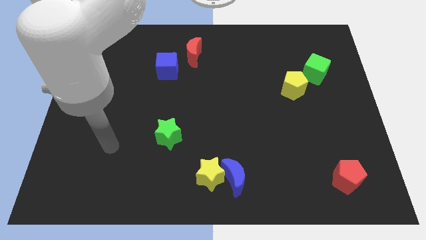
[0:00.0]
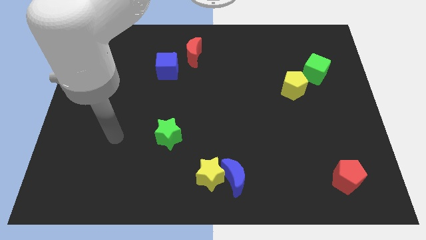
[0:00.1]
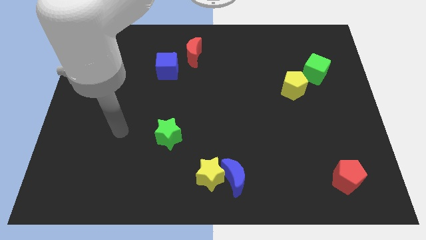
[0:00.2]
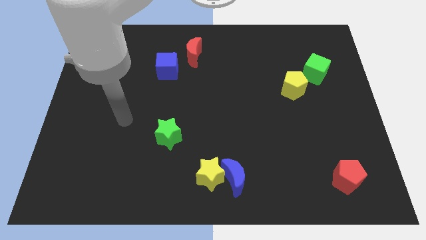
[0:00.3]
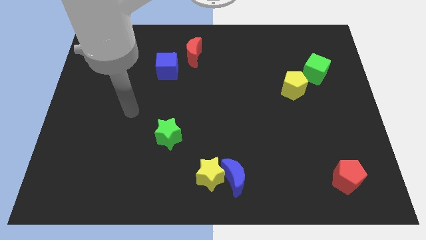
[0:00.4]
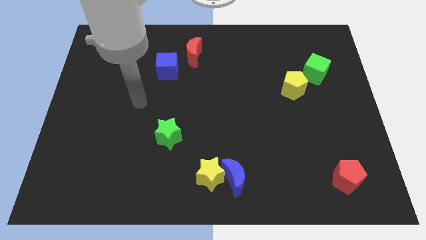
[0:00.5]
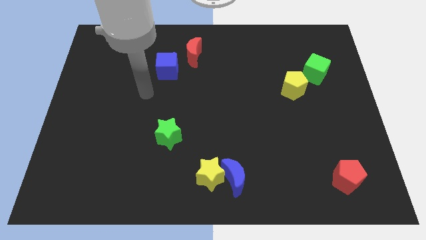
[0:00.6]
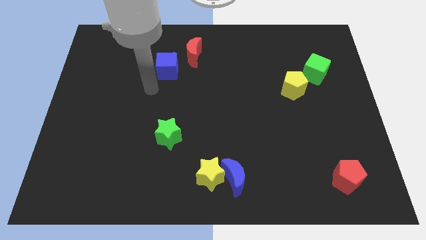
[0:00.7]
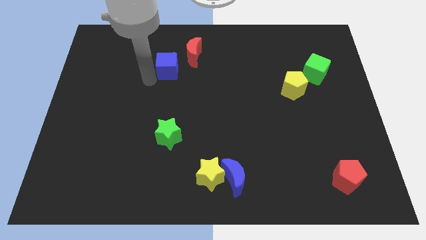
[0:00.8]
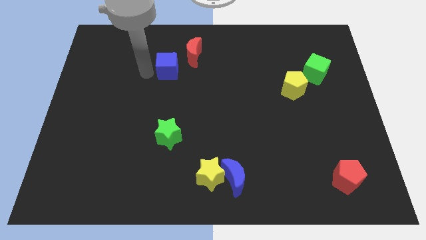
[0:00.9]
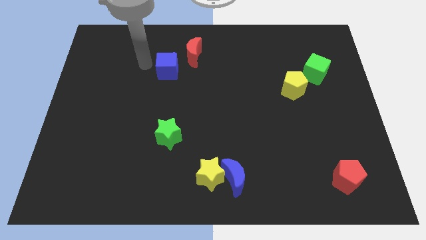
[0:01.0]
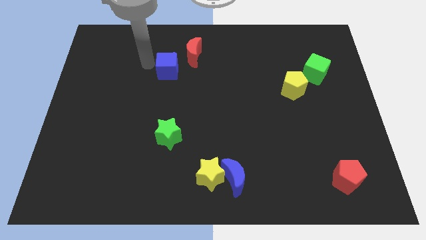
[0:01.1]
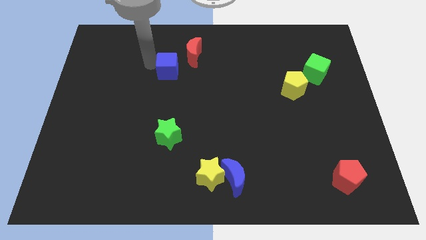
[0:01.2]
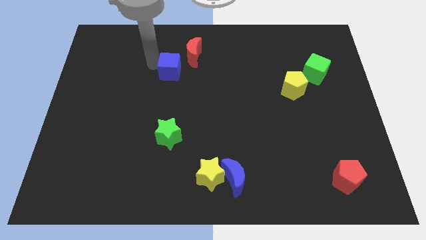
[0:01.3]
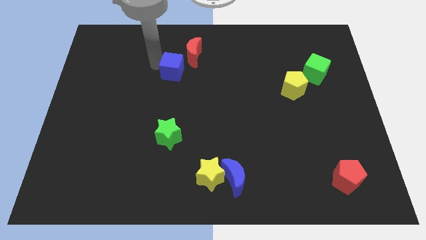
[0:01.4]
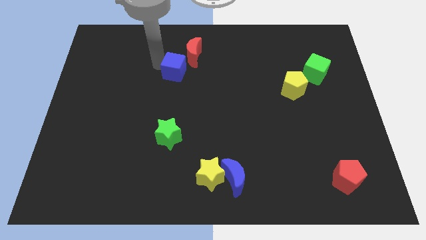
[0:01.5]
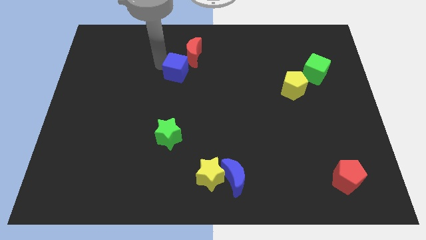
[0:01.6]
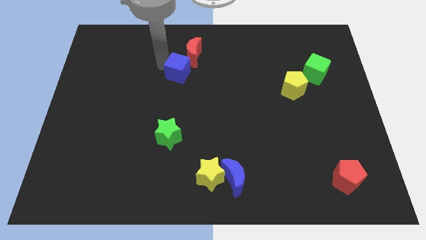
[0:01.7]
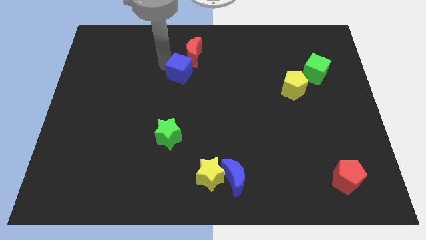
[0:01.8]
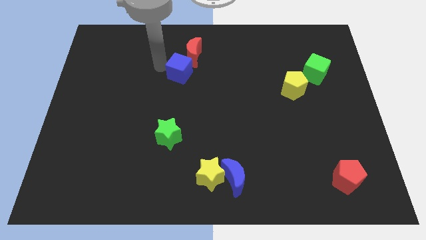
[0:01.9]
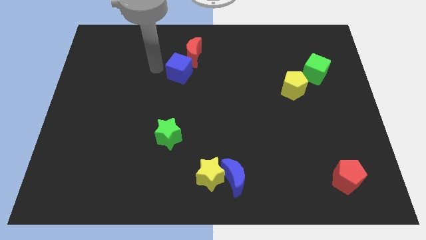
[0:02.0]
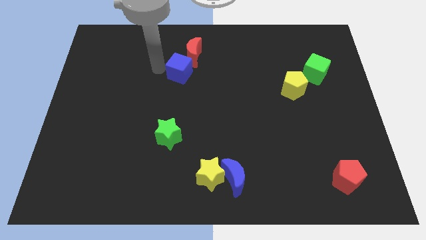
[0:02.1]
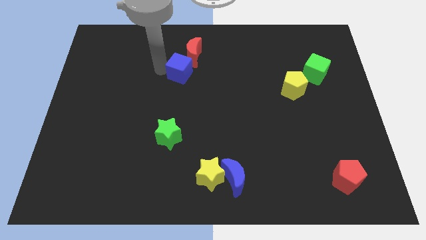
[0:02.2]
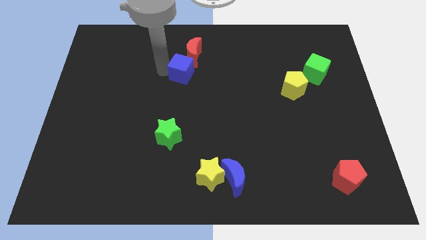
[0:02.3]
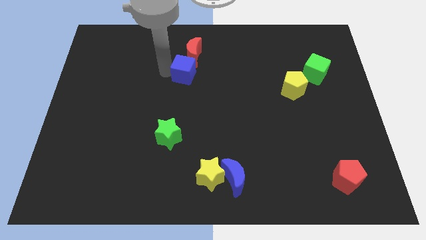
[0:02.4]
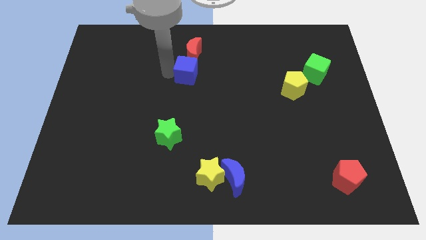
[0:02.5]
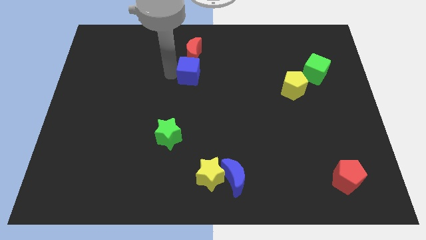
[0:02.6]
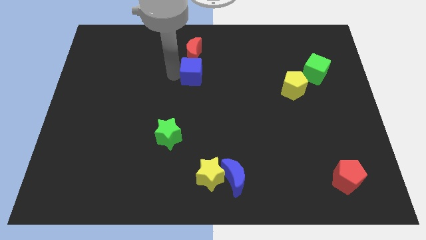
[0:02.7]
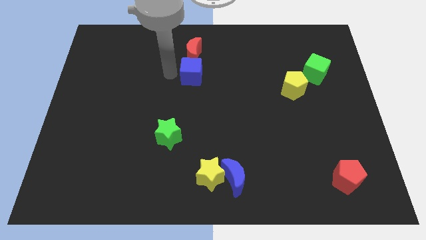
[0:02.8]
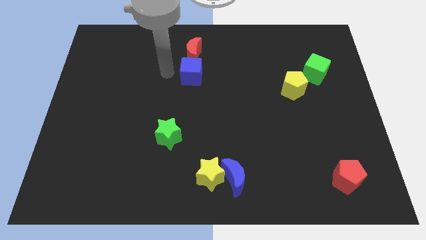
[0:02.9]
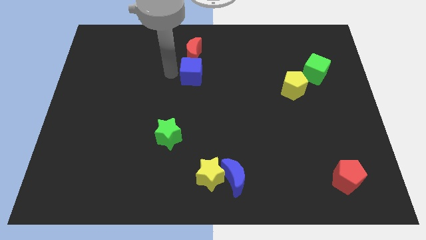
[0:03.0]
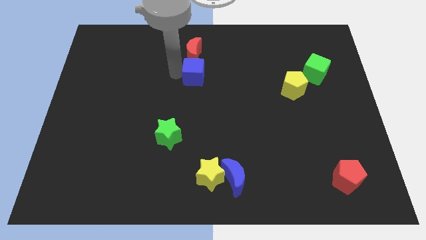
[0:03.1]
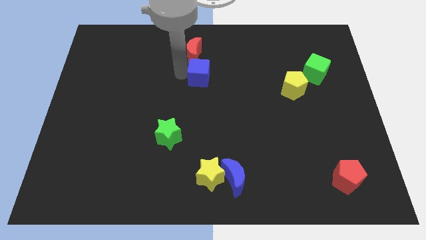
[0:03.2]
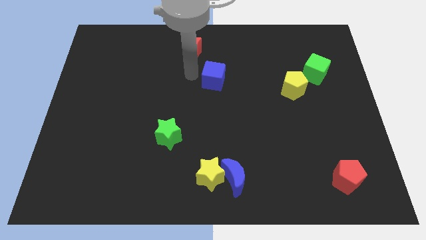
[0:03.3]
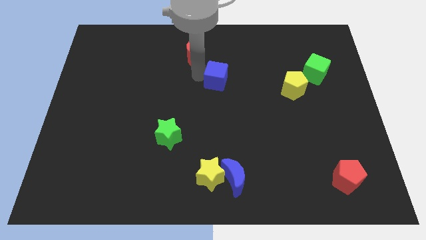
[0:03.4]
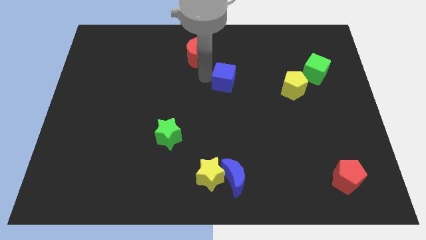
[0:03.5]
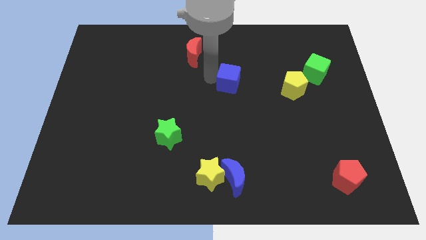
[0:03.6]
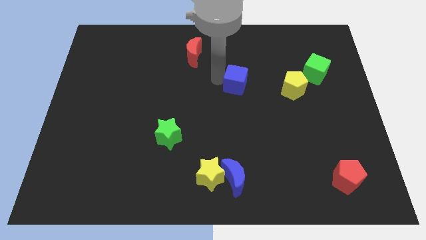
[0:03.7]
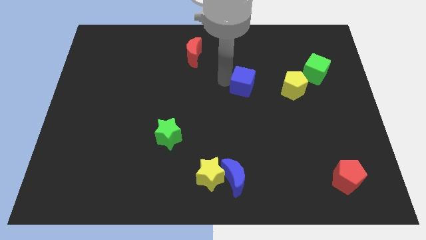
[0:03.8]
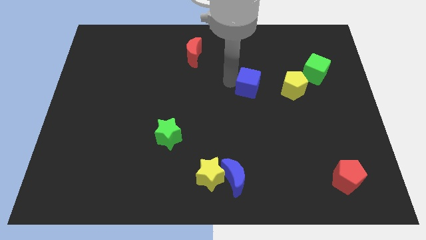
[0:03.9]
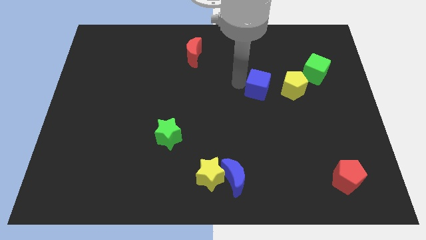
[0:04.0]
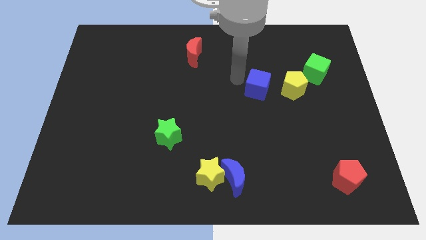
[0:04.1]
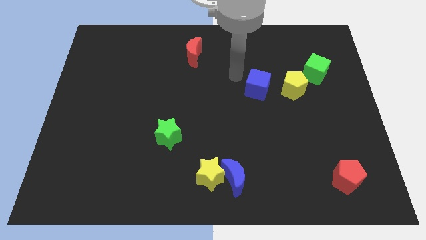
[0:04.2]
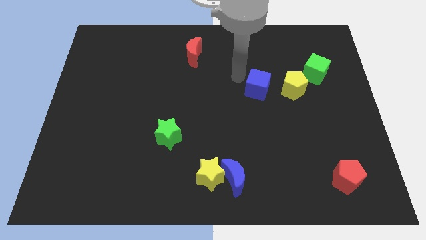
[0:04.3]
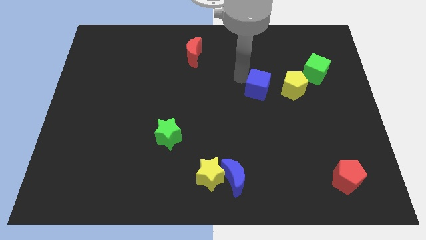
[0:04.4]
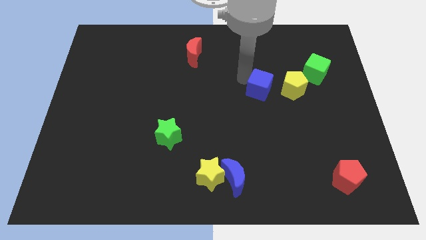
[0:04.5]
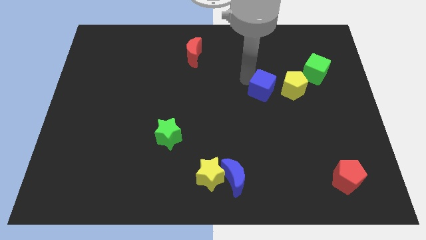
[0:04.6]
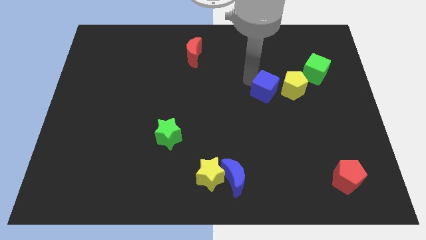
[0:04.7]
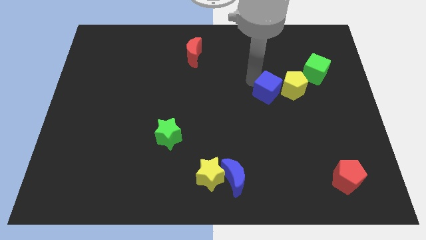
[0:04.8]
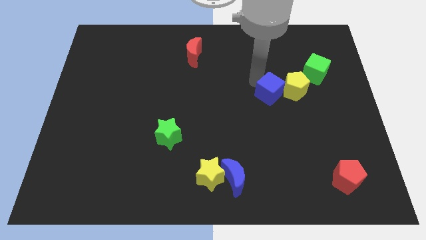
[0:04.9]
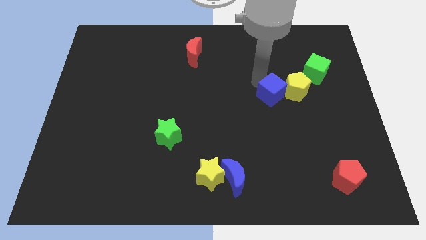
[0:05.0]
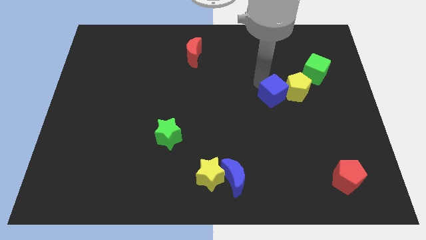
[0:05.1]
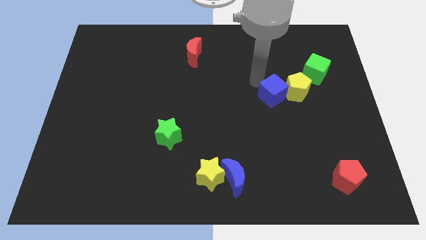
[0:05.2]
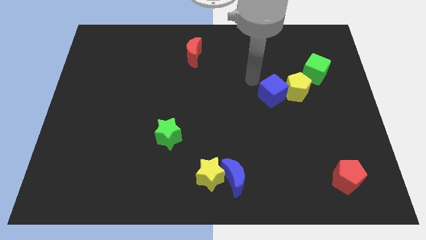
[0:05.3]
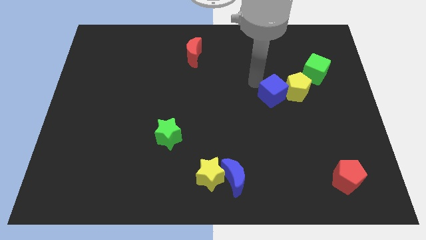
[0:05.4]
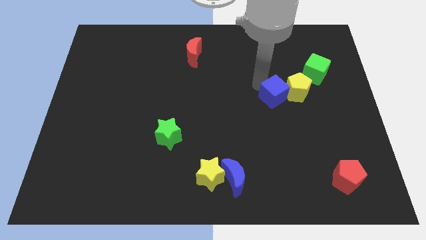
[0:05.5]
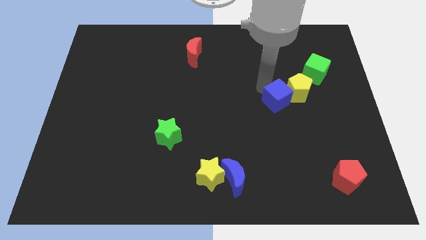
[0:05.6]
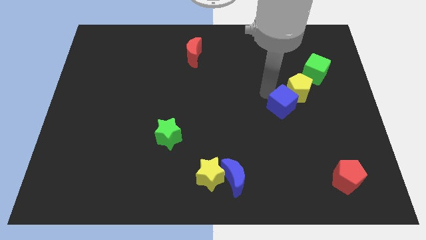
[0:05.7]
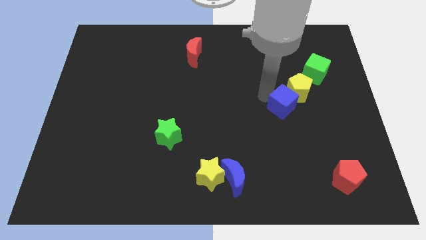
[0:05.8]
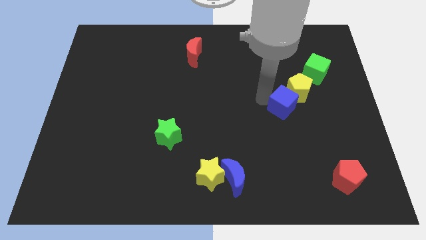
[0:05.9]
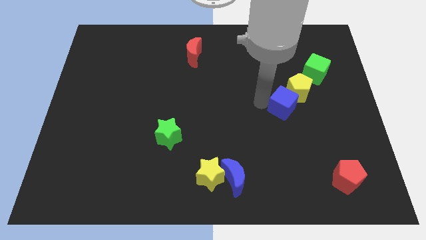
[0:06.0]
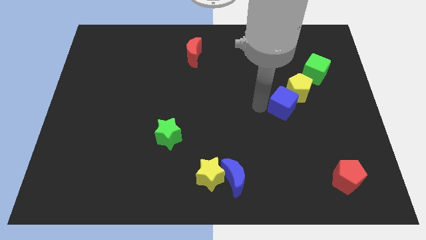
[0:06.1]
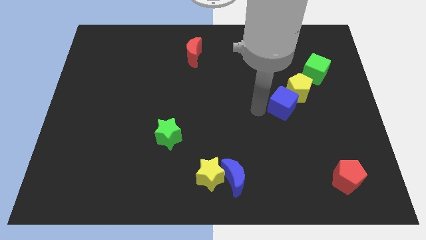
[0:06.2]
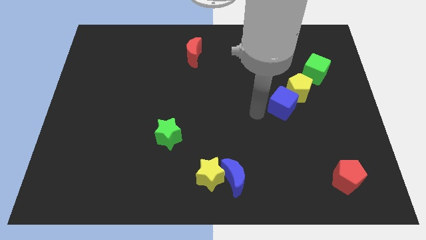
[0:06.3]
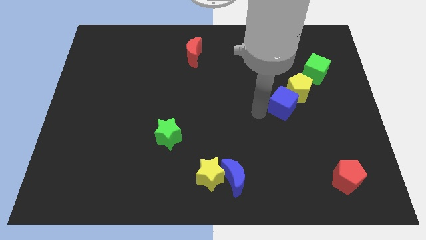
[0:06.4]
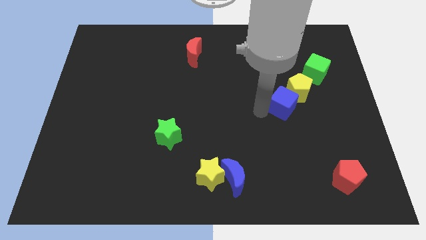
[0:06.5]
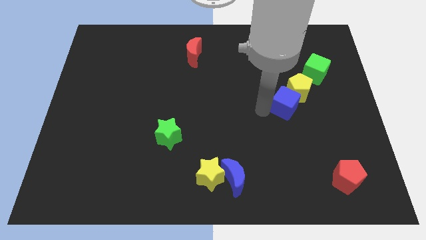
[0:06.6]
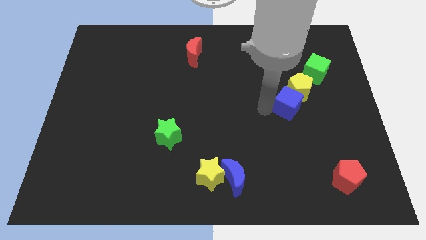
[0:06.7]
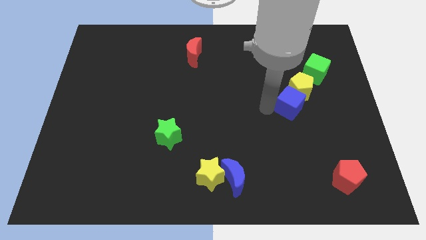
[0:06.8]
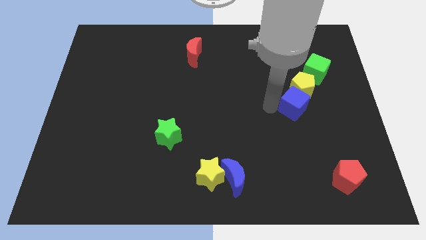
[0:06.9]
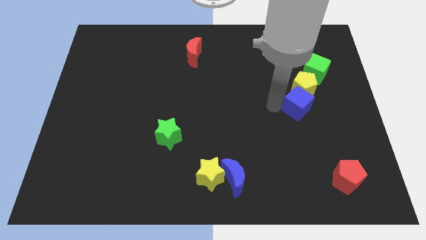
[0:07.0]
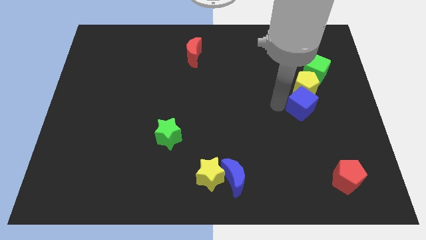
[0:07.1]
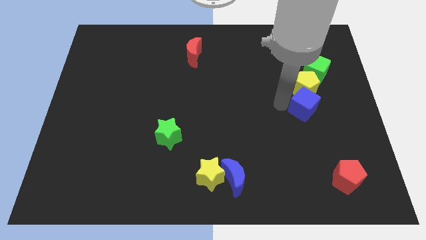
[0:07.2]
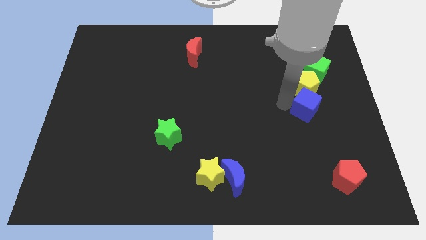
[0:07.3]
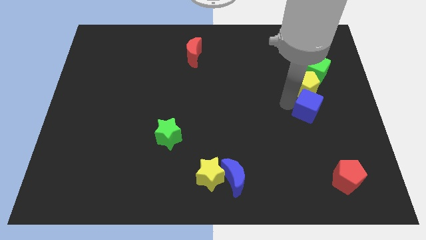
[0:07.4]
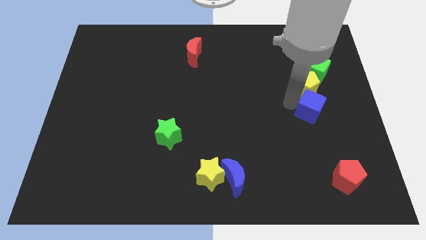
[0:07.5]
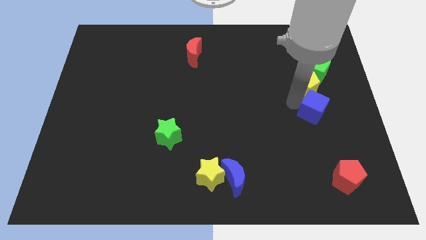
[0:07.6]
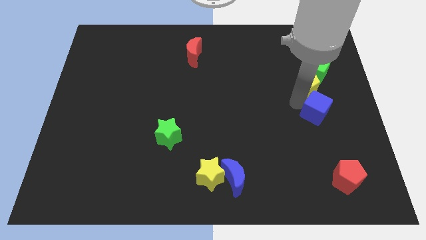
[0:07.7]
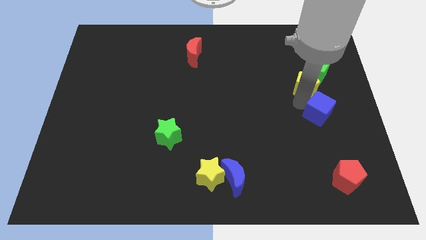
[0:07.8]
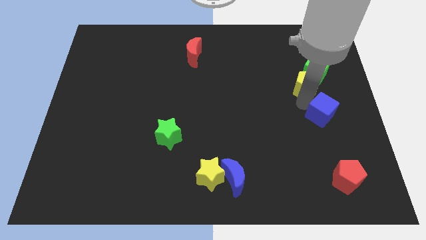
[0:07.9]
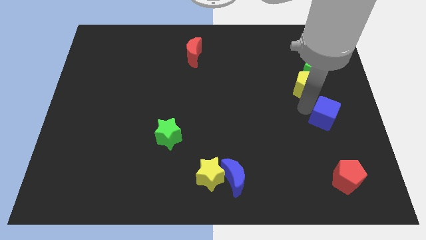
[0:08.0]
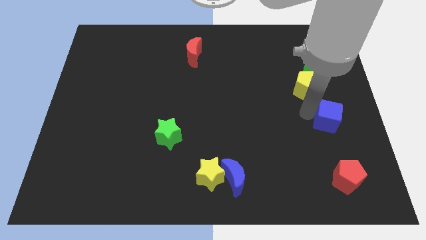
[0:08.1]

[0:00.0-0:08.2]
push the blue cube to the right side
